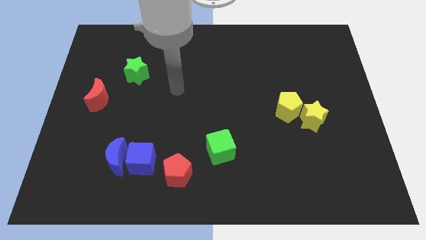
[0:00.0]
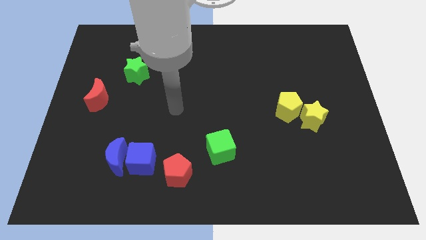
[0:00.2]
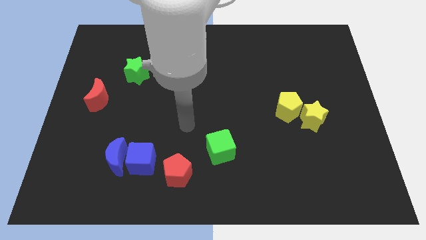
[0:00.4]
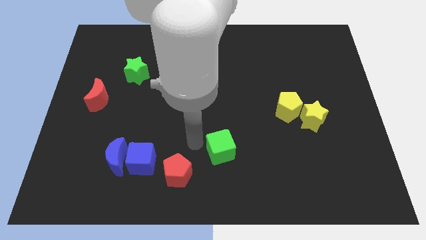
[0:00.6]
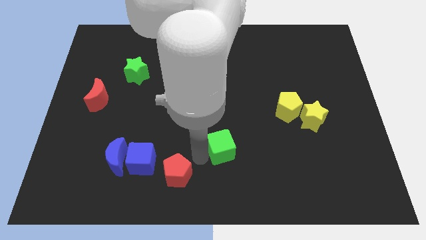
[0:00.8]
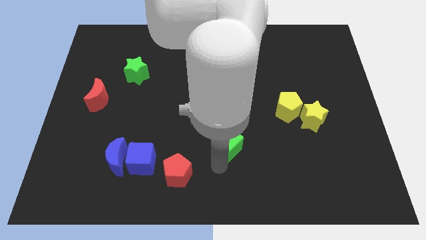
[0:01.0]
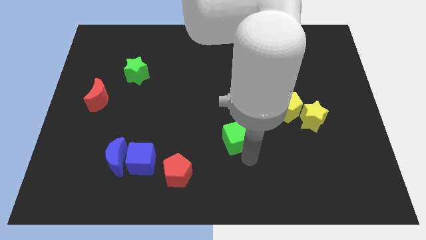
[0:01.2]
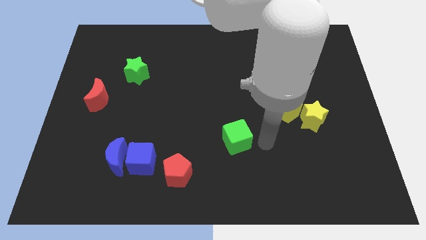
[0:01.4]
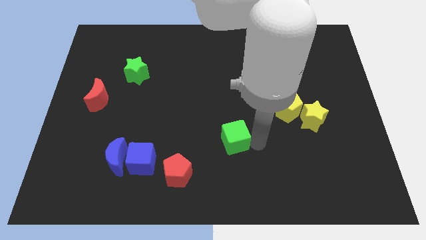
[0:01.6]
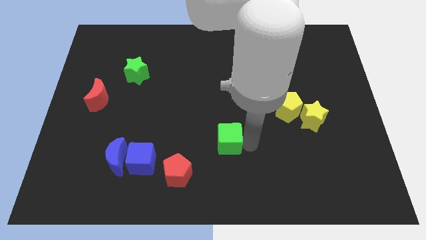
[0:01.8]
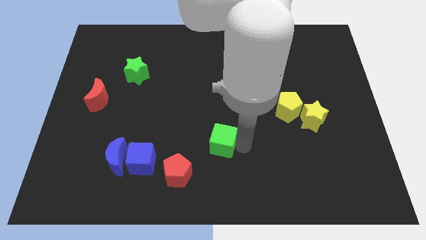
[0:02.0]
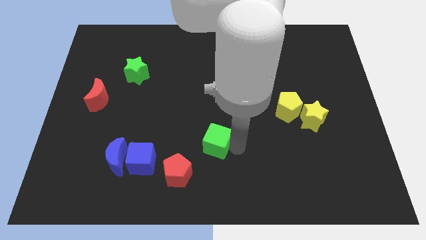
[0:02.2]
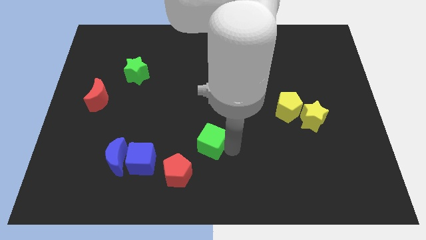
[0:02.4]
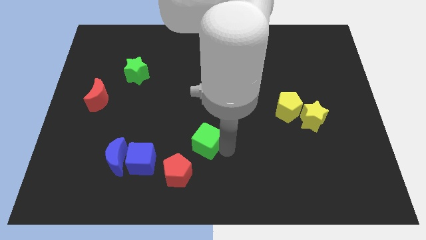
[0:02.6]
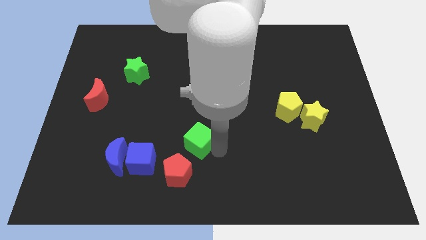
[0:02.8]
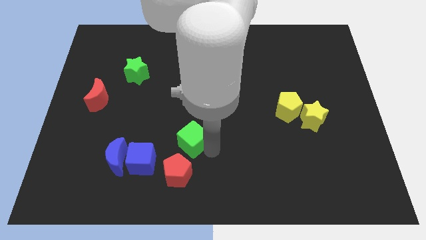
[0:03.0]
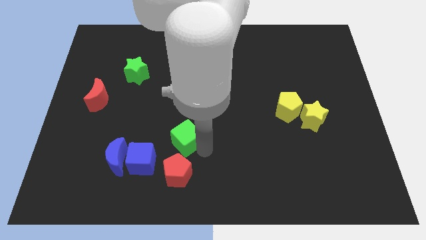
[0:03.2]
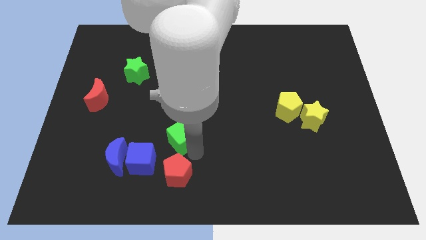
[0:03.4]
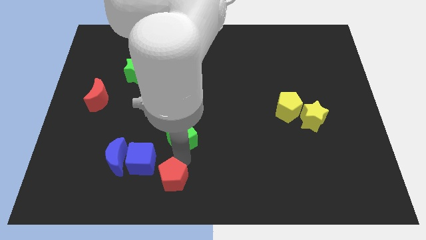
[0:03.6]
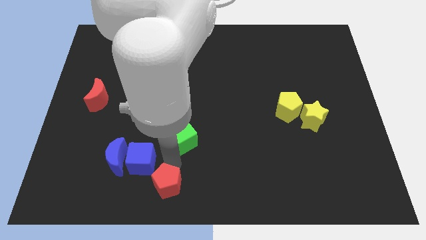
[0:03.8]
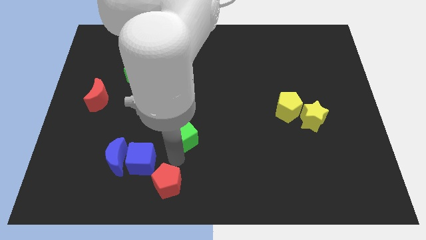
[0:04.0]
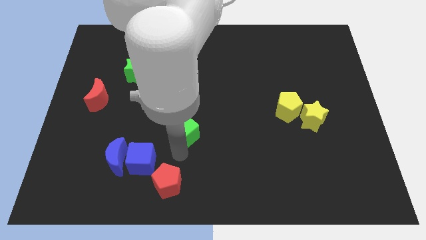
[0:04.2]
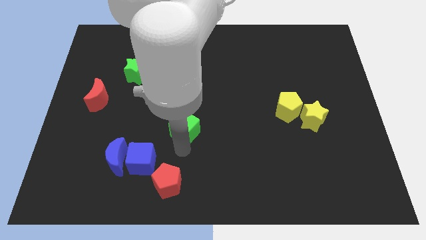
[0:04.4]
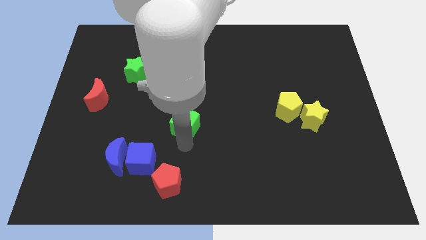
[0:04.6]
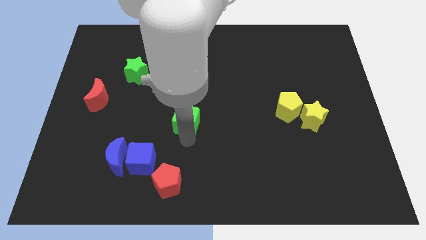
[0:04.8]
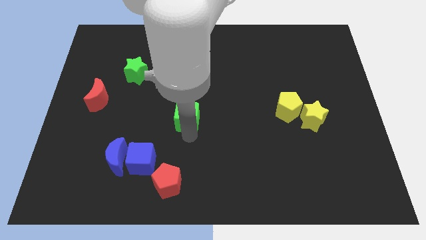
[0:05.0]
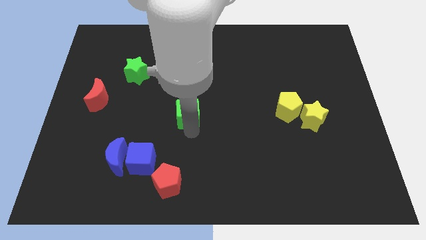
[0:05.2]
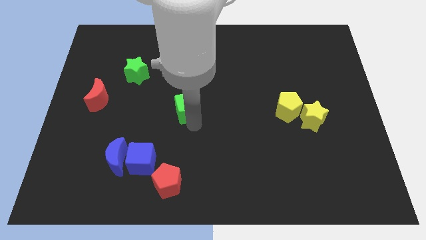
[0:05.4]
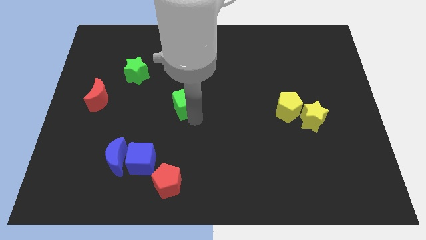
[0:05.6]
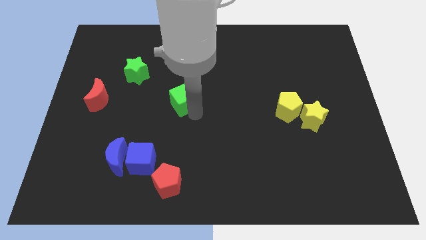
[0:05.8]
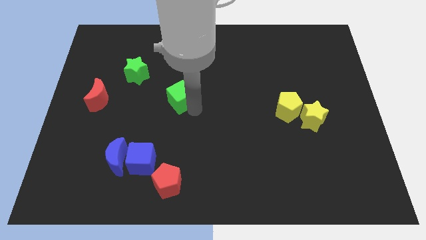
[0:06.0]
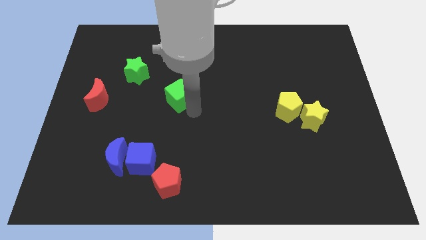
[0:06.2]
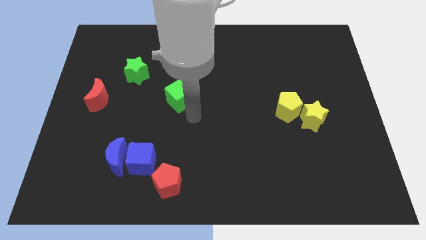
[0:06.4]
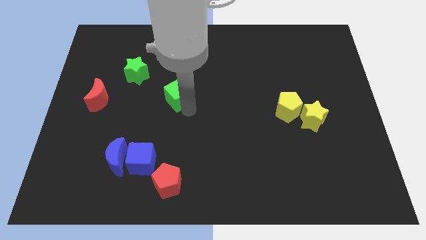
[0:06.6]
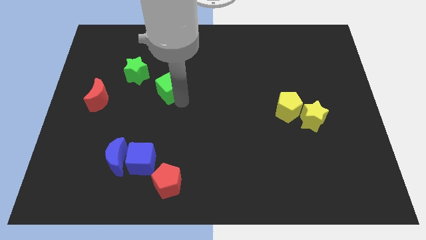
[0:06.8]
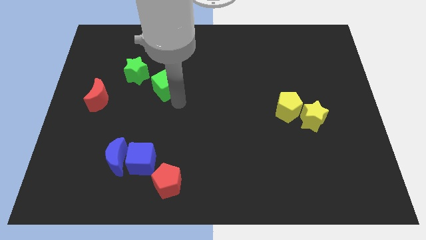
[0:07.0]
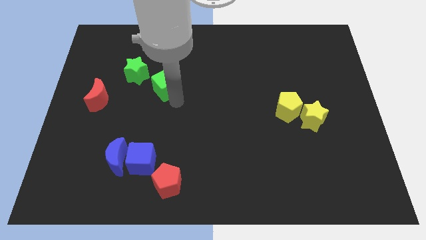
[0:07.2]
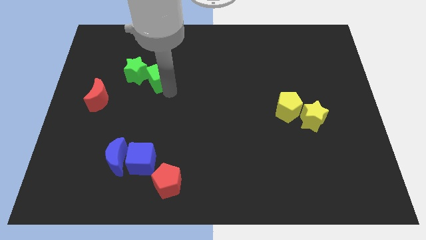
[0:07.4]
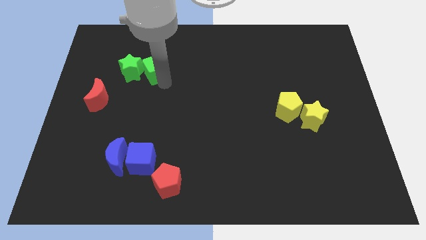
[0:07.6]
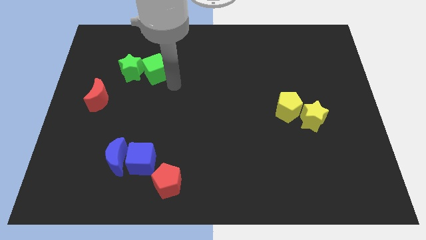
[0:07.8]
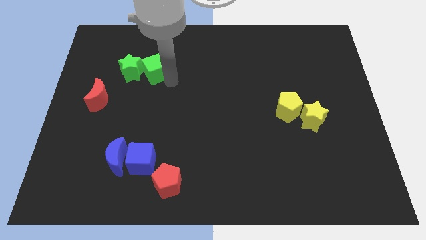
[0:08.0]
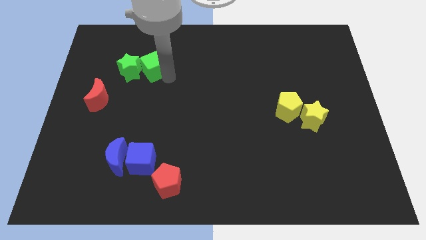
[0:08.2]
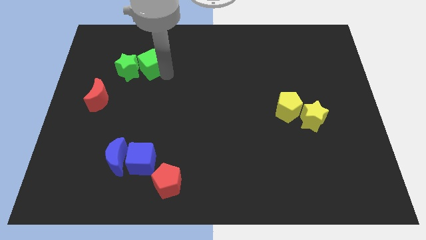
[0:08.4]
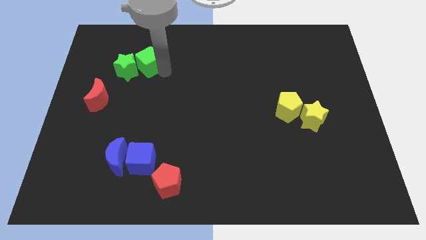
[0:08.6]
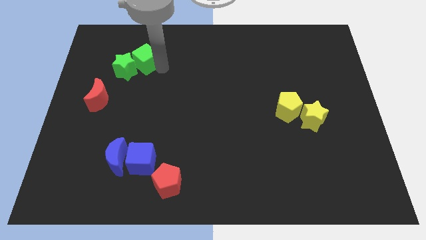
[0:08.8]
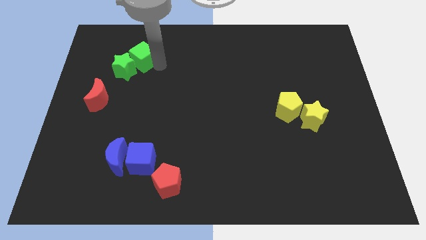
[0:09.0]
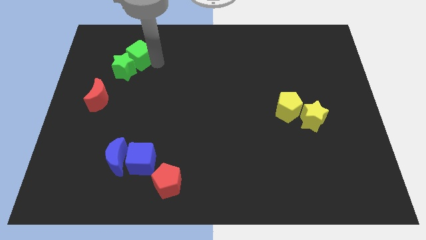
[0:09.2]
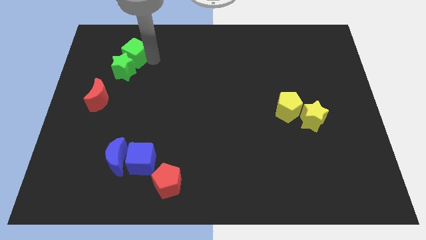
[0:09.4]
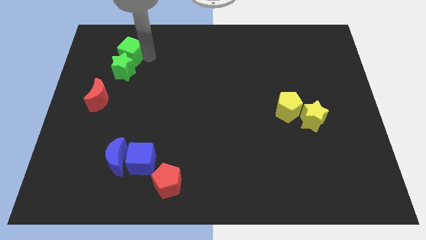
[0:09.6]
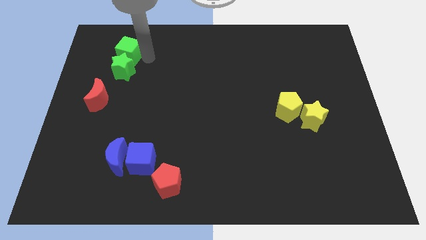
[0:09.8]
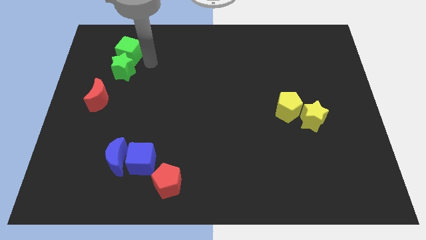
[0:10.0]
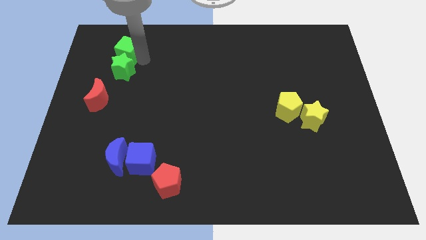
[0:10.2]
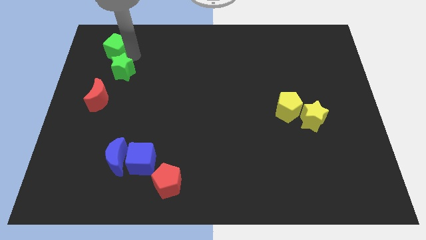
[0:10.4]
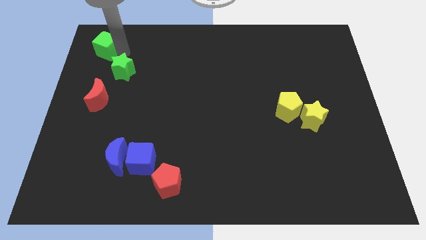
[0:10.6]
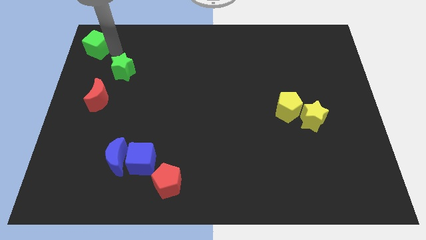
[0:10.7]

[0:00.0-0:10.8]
put the green cube to the top left
